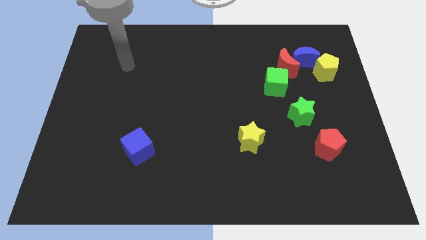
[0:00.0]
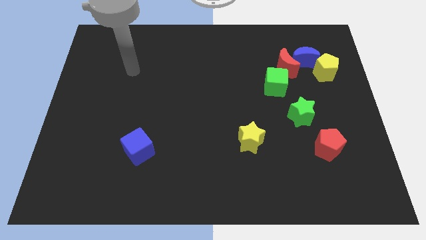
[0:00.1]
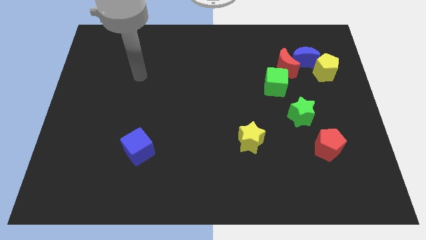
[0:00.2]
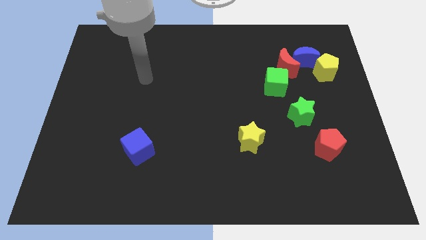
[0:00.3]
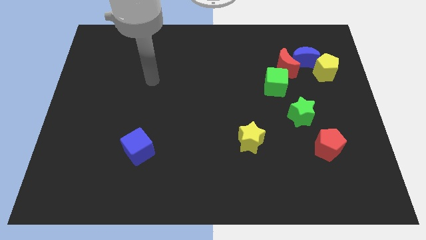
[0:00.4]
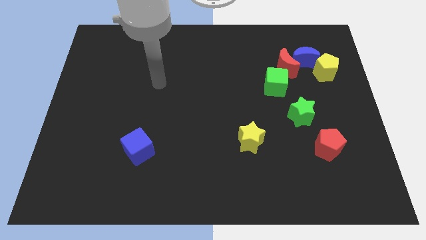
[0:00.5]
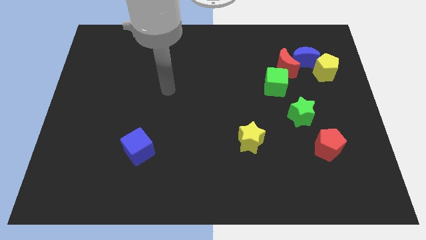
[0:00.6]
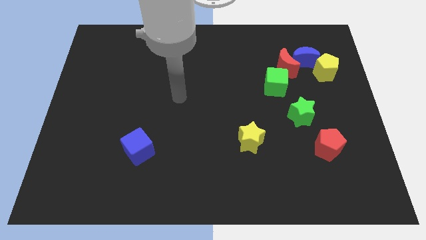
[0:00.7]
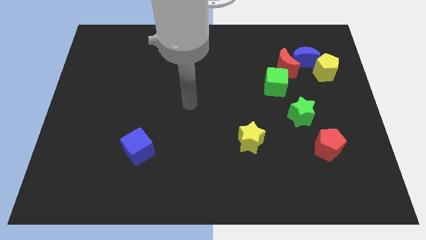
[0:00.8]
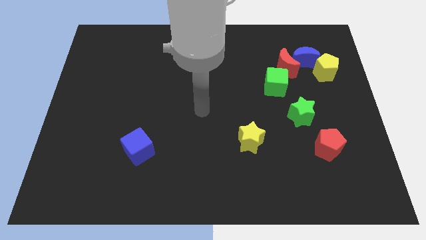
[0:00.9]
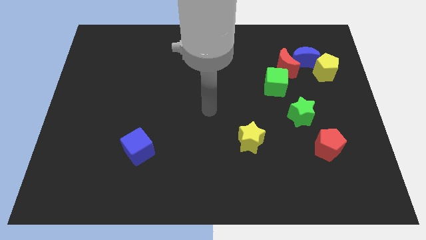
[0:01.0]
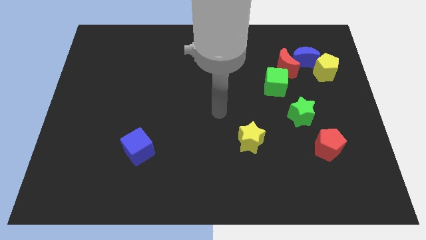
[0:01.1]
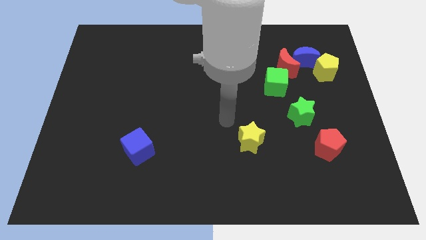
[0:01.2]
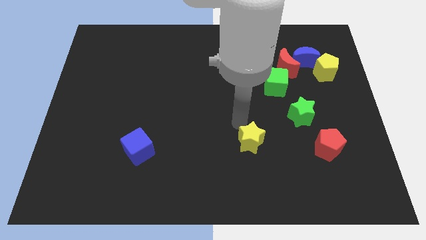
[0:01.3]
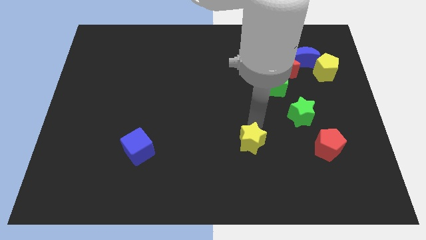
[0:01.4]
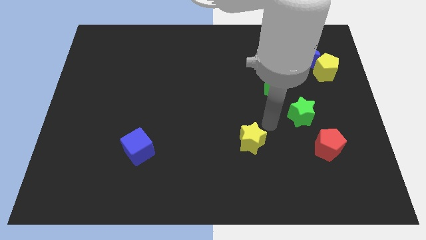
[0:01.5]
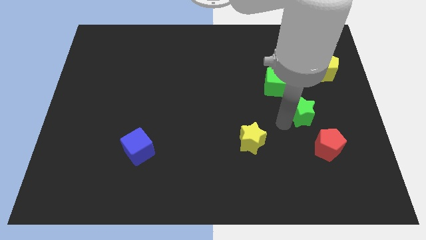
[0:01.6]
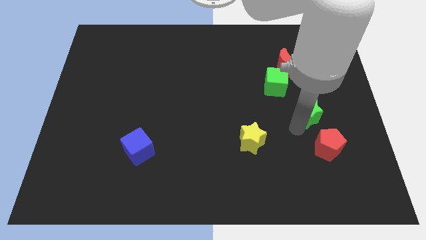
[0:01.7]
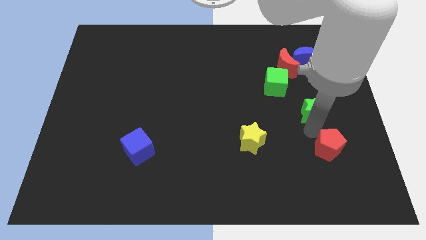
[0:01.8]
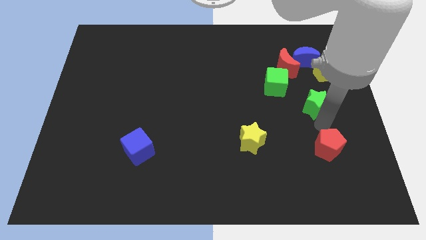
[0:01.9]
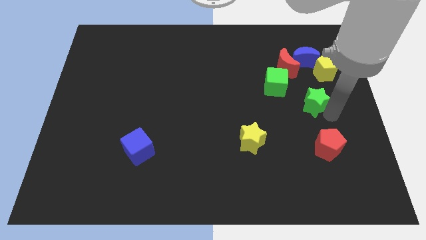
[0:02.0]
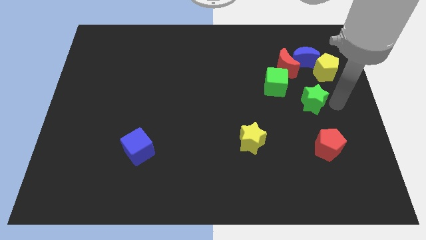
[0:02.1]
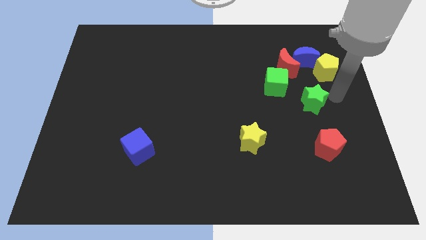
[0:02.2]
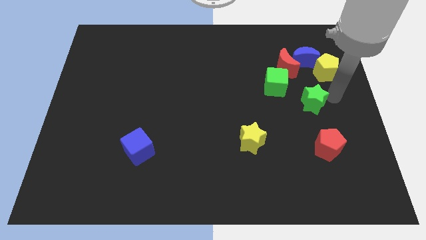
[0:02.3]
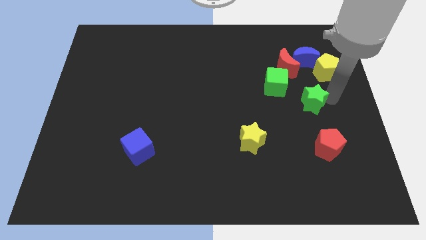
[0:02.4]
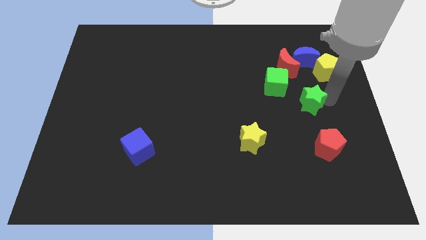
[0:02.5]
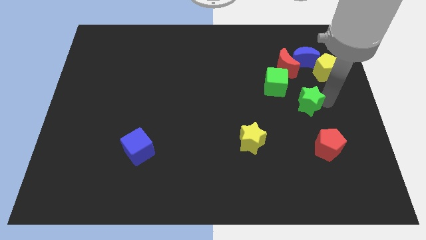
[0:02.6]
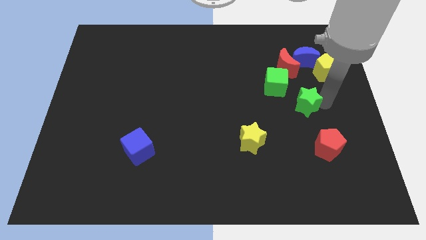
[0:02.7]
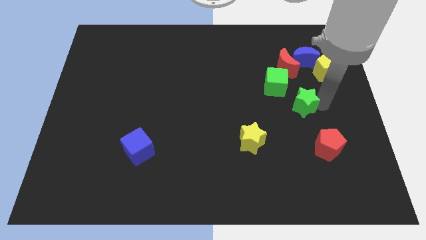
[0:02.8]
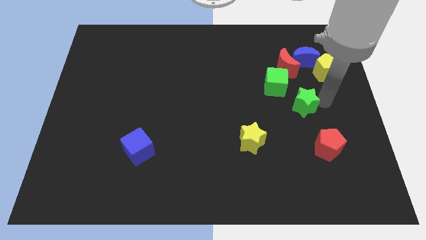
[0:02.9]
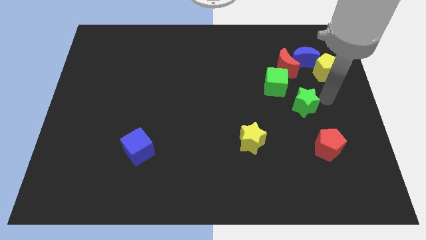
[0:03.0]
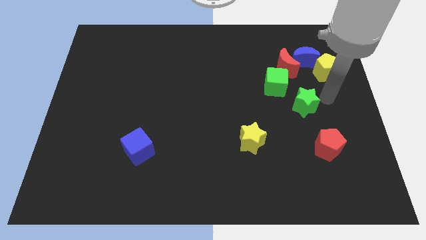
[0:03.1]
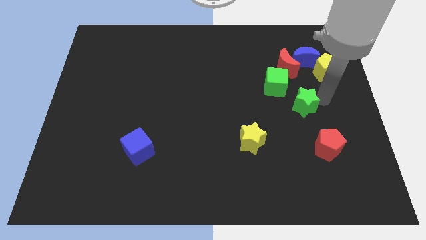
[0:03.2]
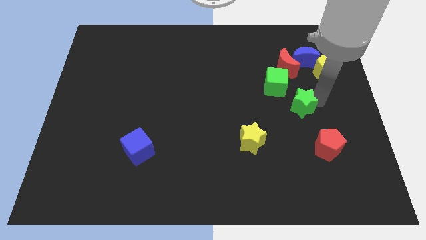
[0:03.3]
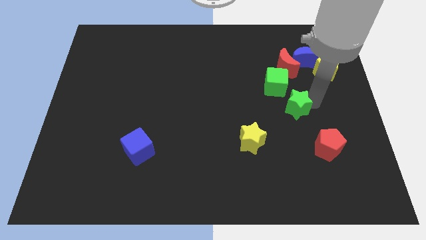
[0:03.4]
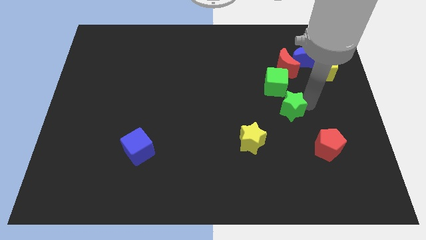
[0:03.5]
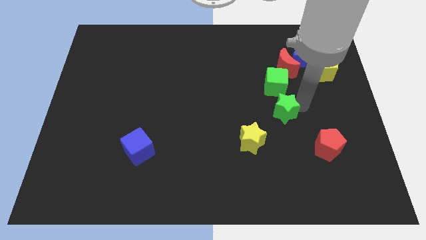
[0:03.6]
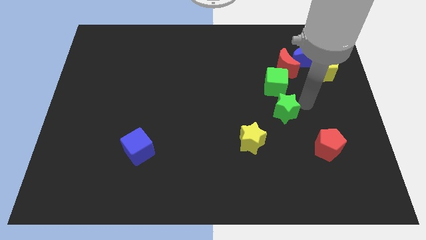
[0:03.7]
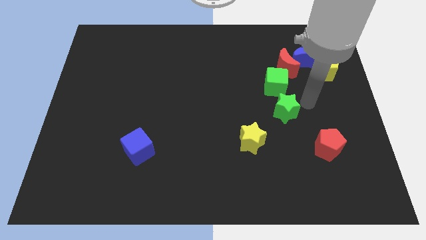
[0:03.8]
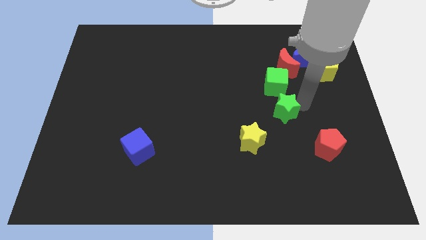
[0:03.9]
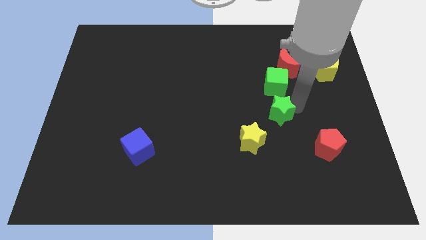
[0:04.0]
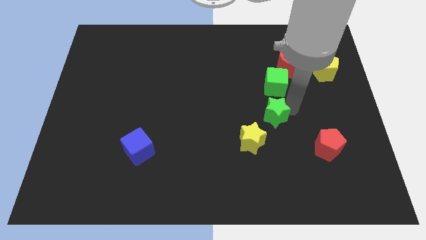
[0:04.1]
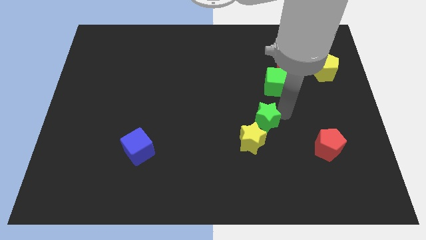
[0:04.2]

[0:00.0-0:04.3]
push the green star a little to the left

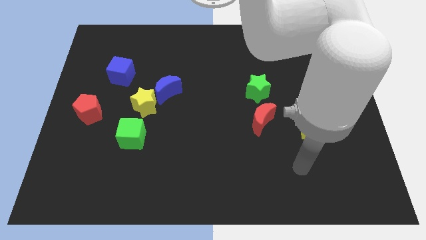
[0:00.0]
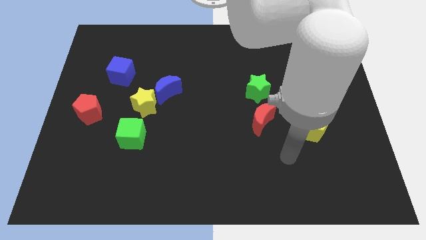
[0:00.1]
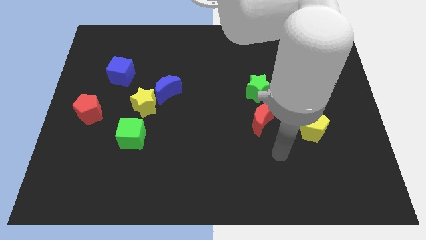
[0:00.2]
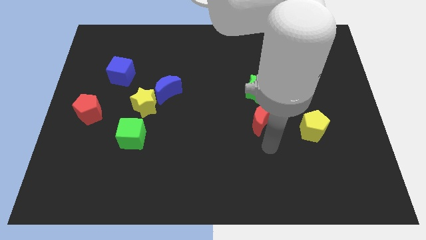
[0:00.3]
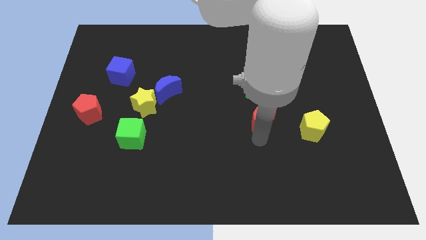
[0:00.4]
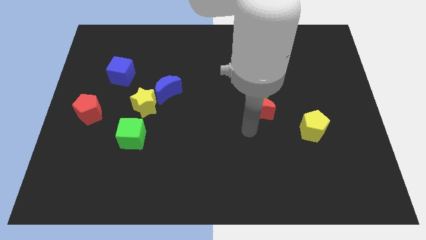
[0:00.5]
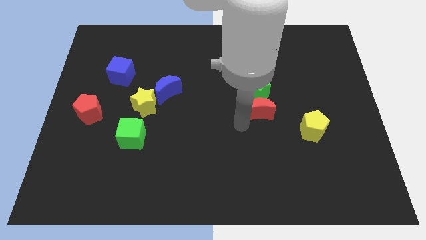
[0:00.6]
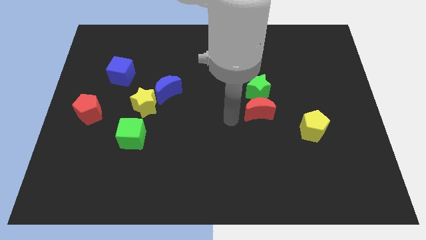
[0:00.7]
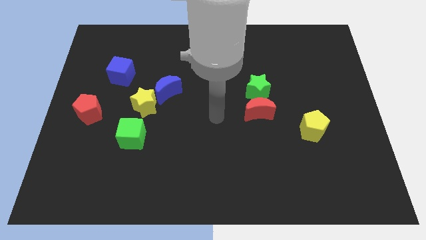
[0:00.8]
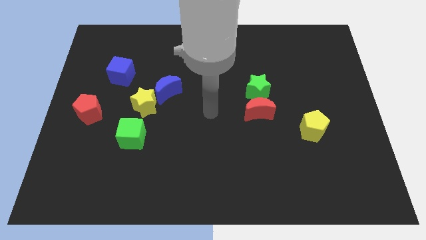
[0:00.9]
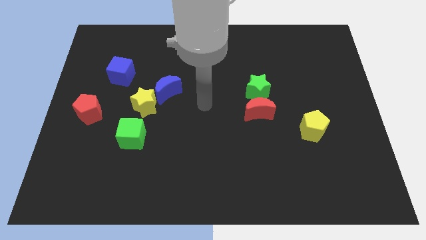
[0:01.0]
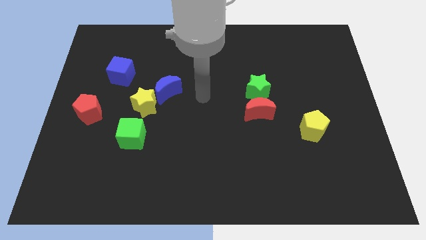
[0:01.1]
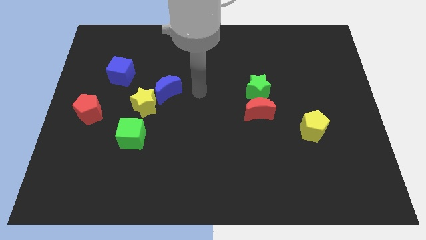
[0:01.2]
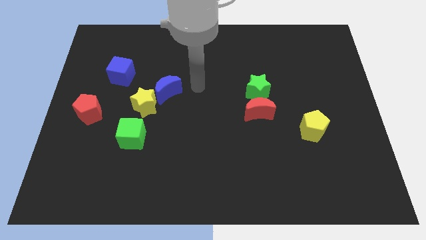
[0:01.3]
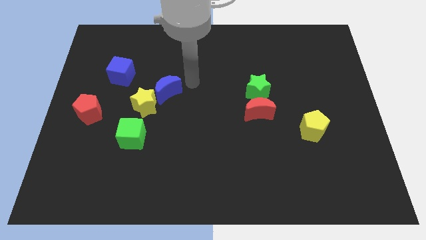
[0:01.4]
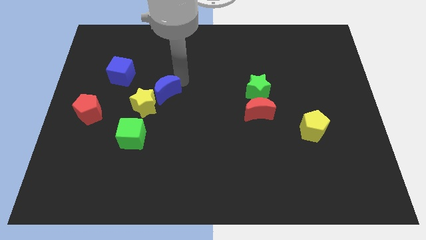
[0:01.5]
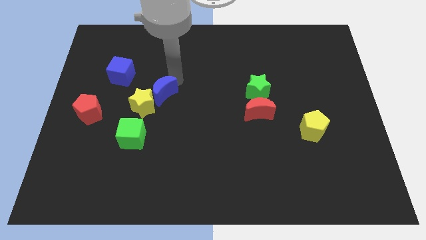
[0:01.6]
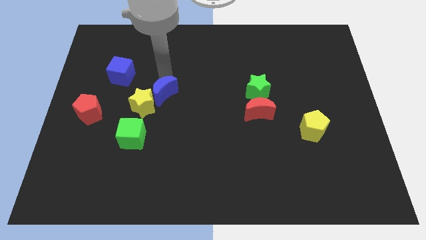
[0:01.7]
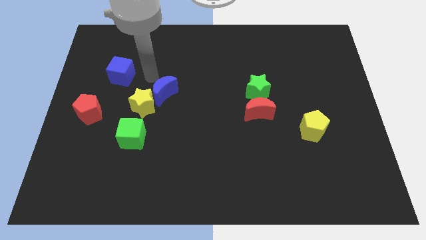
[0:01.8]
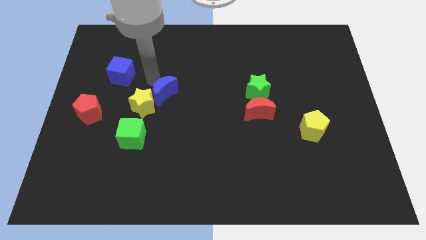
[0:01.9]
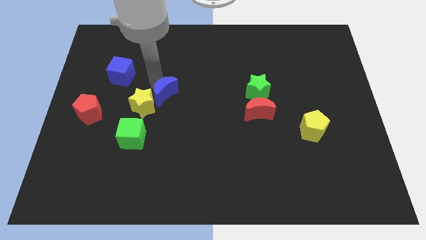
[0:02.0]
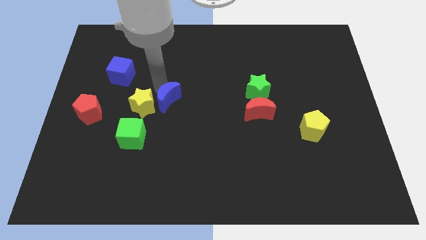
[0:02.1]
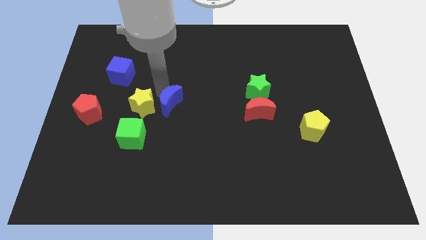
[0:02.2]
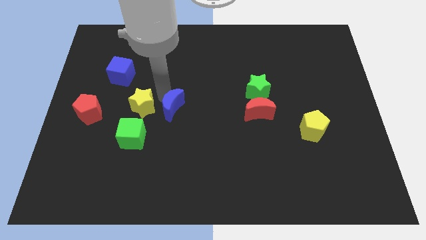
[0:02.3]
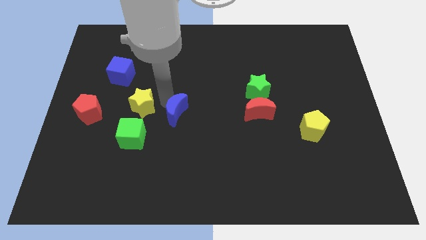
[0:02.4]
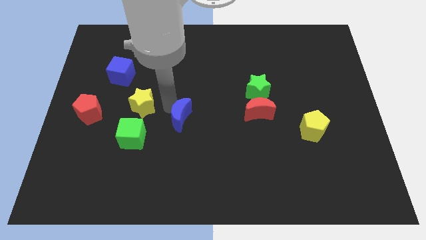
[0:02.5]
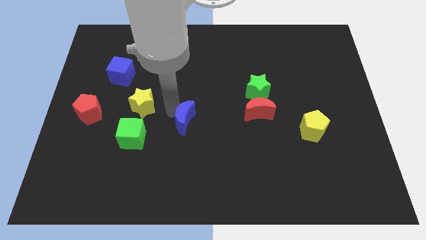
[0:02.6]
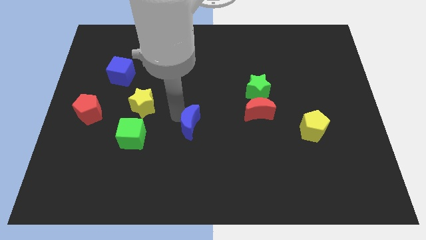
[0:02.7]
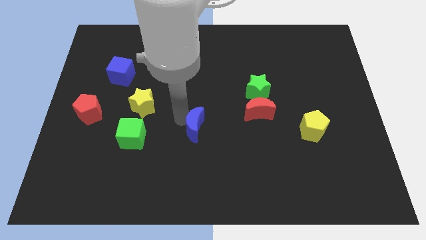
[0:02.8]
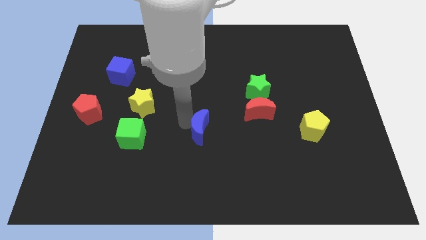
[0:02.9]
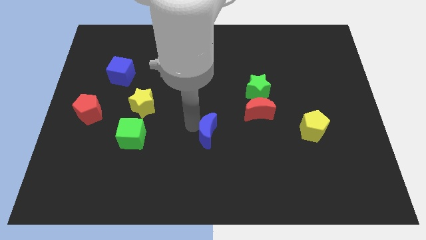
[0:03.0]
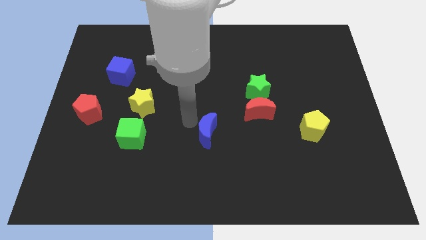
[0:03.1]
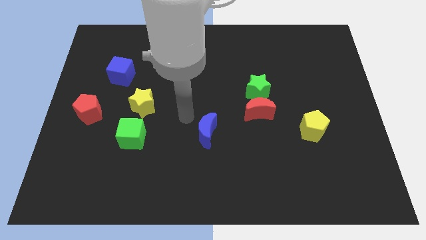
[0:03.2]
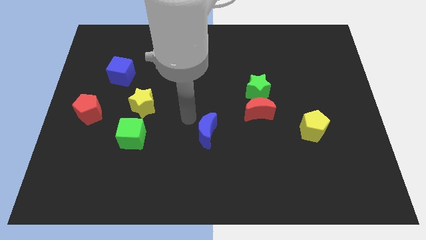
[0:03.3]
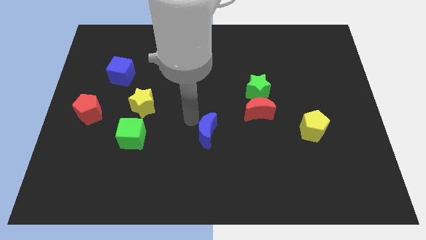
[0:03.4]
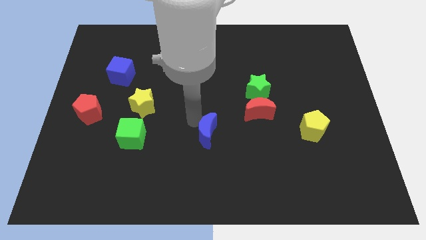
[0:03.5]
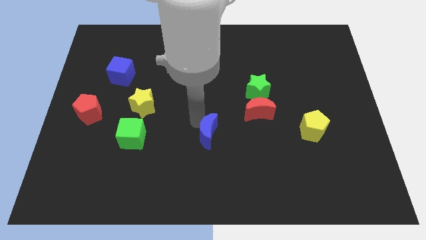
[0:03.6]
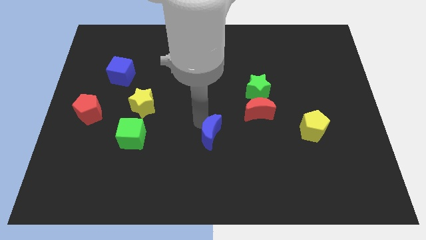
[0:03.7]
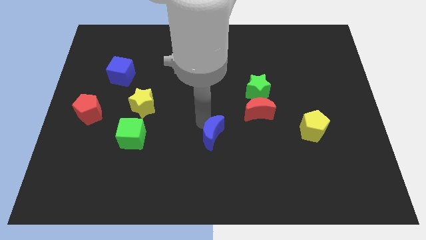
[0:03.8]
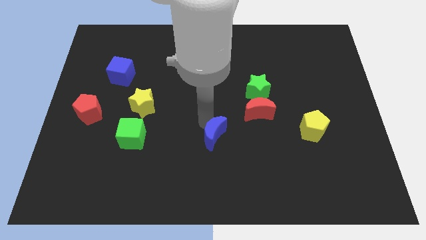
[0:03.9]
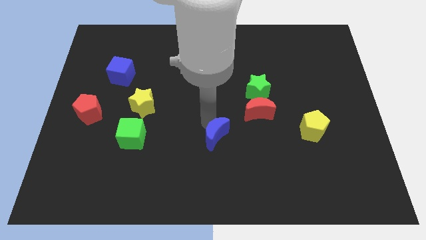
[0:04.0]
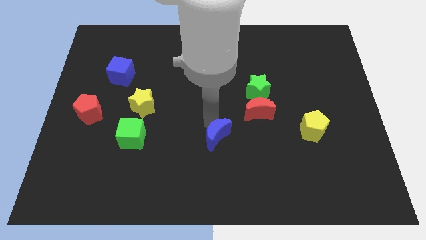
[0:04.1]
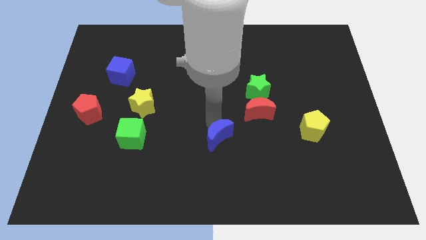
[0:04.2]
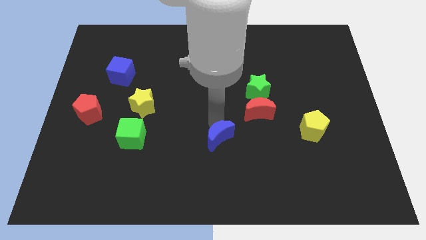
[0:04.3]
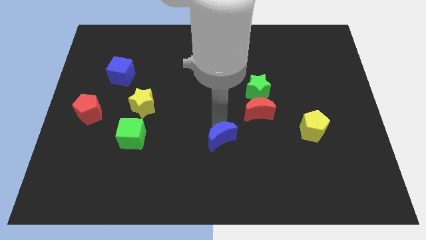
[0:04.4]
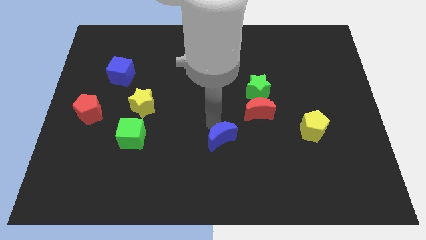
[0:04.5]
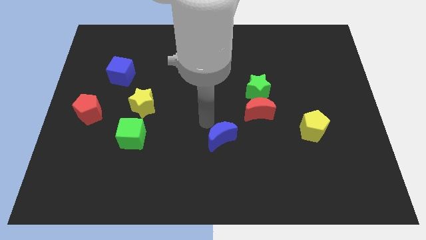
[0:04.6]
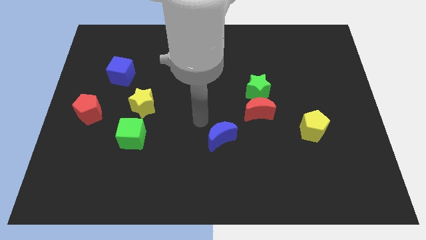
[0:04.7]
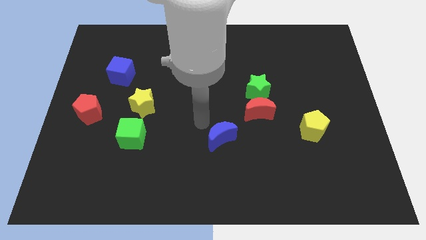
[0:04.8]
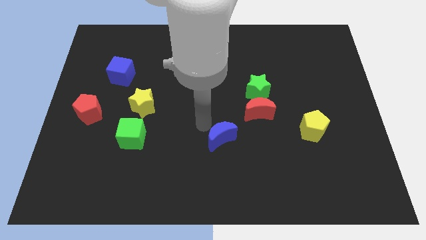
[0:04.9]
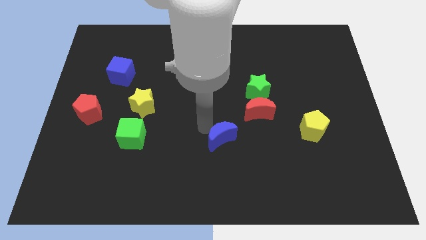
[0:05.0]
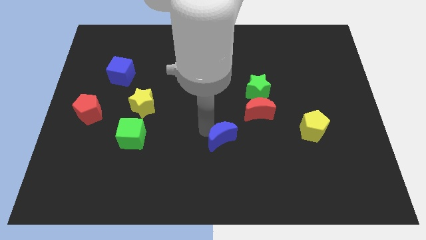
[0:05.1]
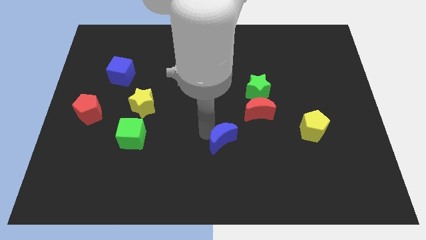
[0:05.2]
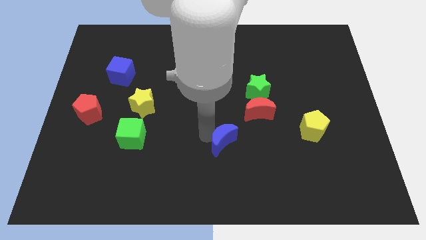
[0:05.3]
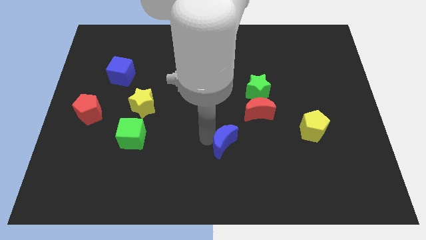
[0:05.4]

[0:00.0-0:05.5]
slide the blue moon downwards and right
